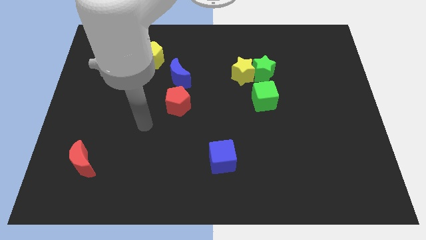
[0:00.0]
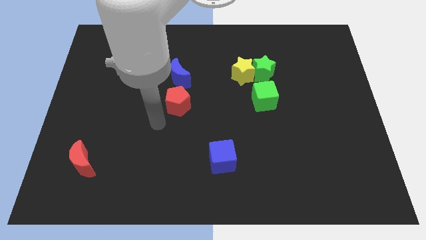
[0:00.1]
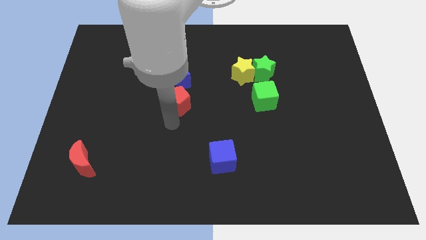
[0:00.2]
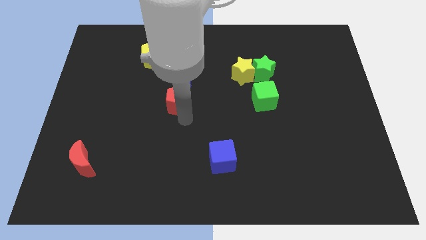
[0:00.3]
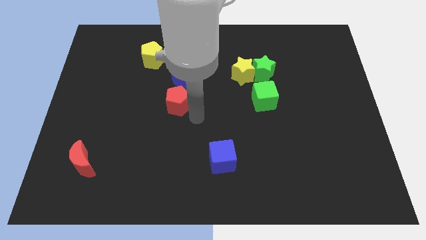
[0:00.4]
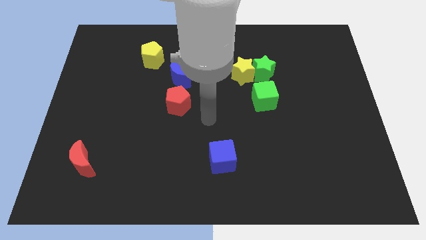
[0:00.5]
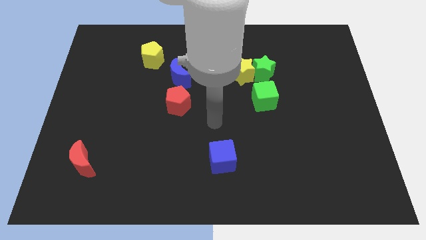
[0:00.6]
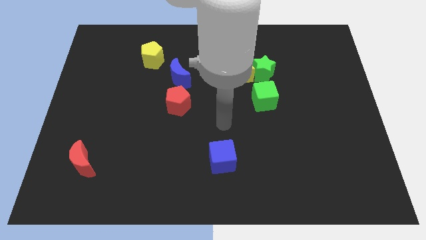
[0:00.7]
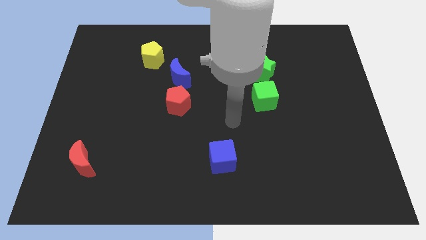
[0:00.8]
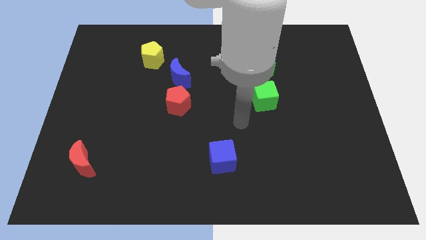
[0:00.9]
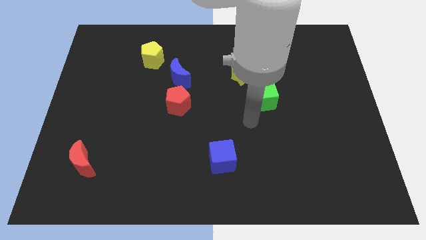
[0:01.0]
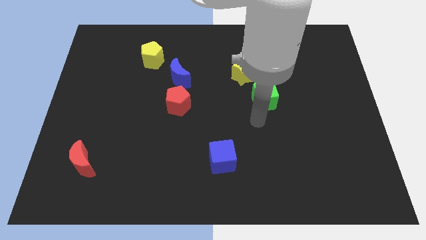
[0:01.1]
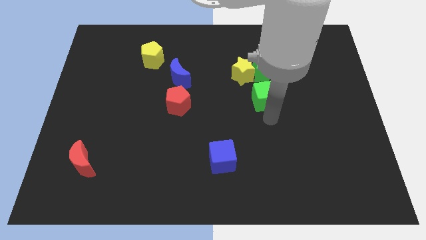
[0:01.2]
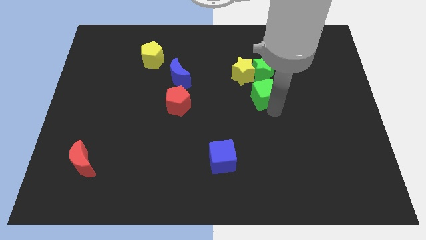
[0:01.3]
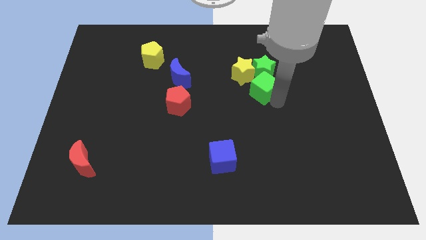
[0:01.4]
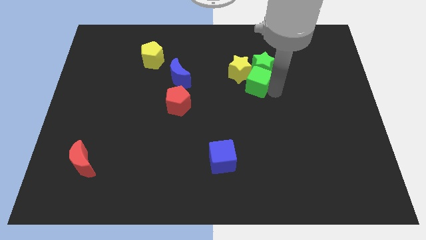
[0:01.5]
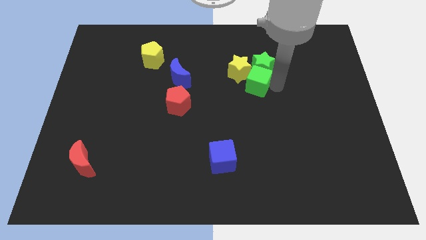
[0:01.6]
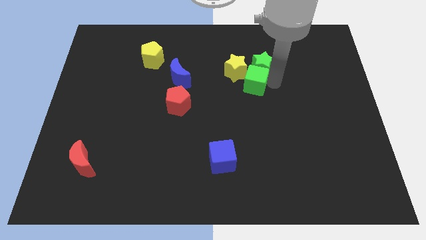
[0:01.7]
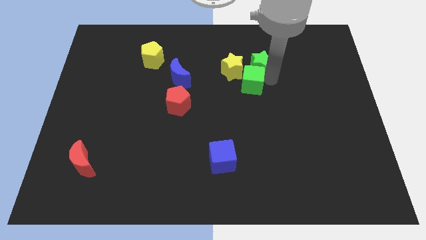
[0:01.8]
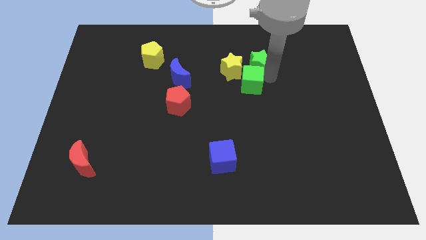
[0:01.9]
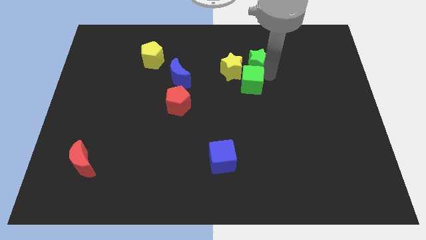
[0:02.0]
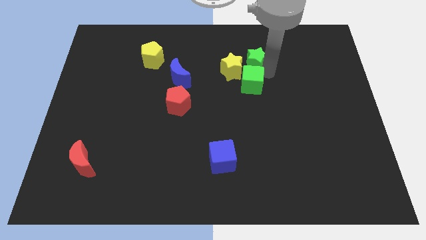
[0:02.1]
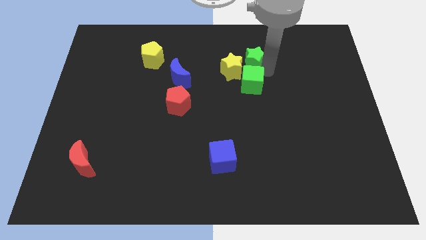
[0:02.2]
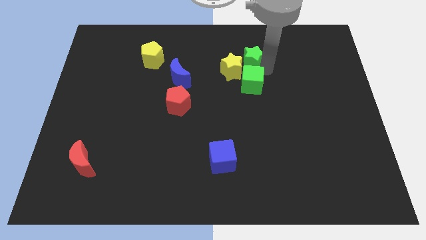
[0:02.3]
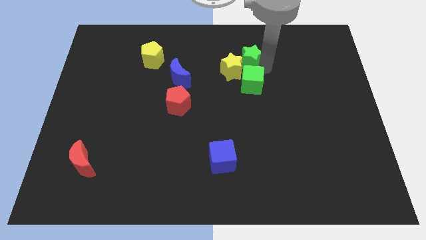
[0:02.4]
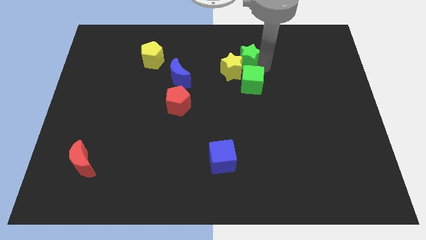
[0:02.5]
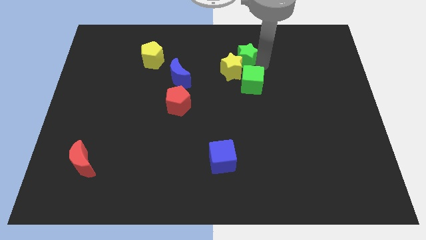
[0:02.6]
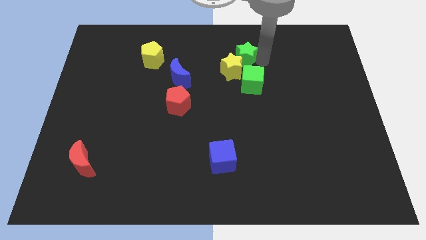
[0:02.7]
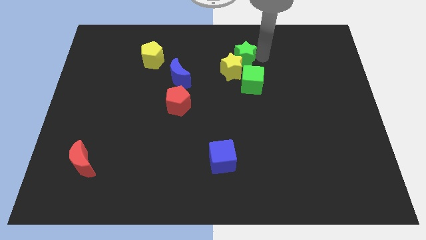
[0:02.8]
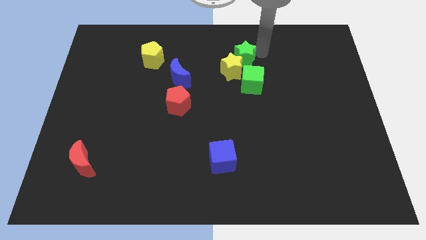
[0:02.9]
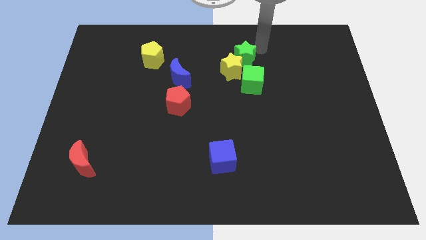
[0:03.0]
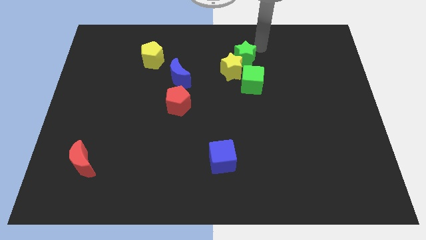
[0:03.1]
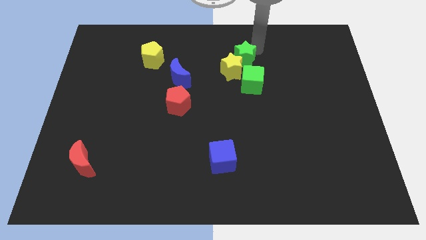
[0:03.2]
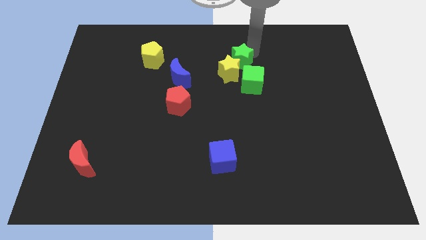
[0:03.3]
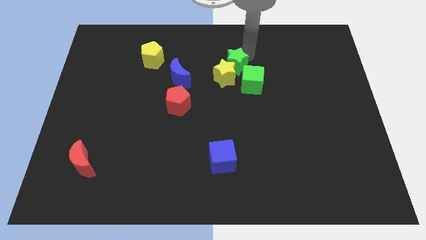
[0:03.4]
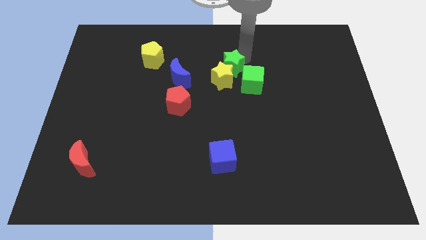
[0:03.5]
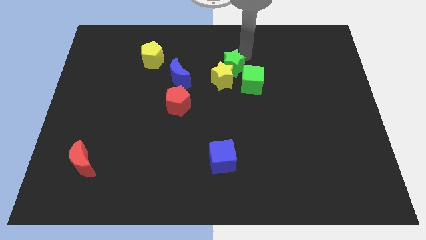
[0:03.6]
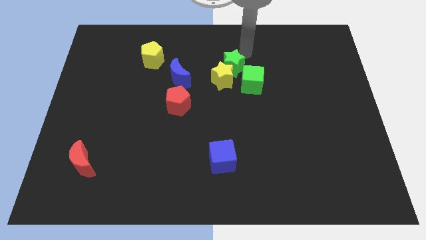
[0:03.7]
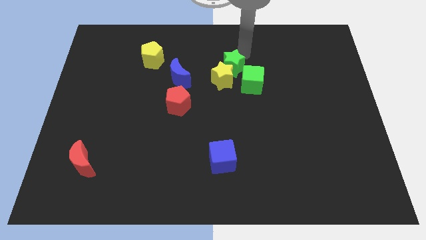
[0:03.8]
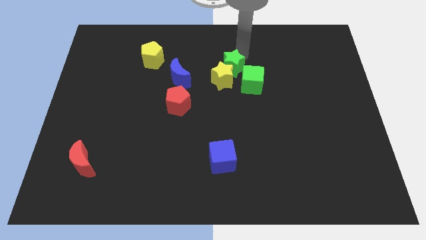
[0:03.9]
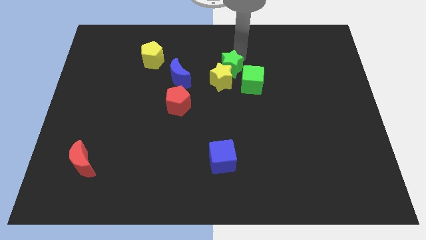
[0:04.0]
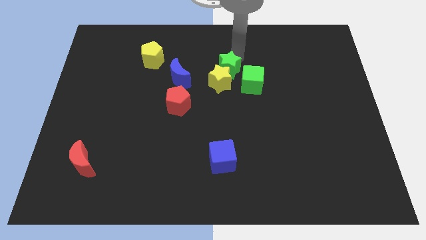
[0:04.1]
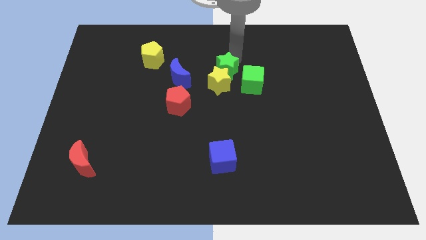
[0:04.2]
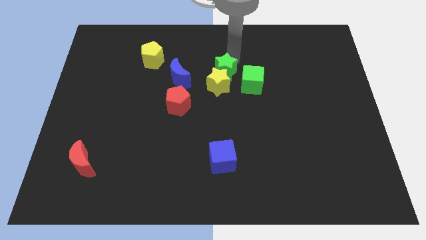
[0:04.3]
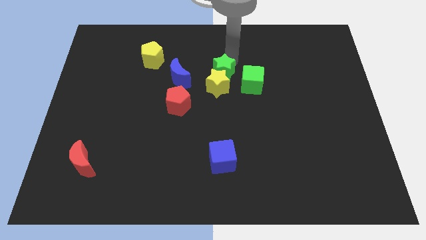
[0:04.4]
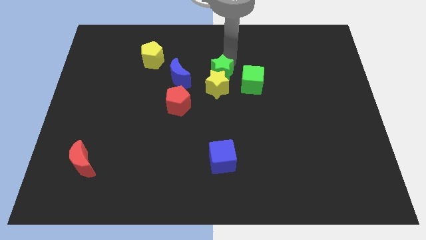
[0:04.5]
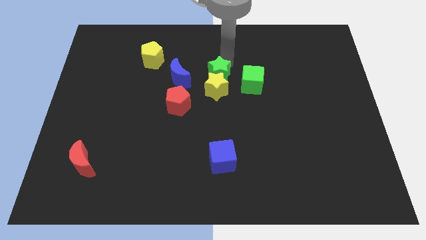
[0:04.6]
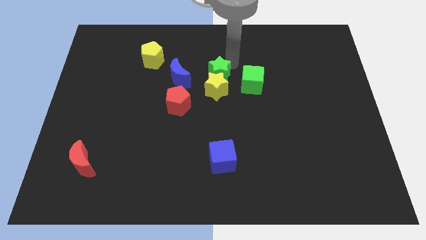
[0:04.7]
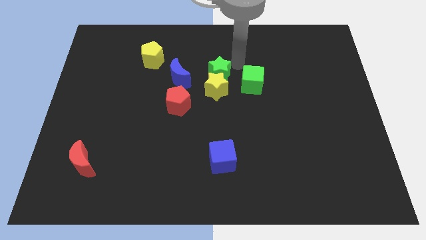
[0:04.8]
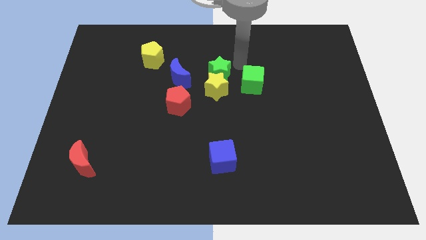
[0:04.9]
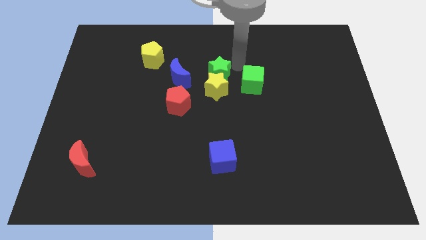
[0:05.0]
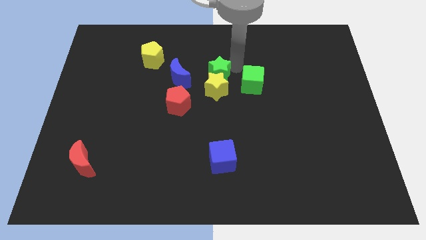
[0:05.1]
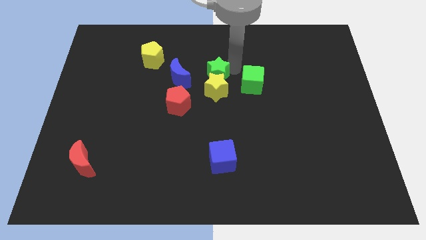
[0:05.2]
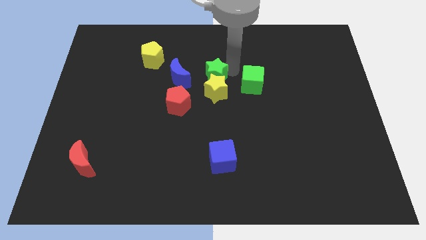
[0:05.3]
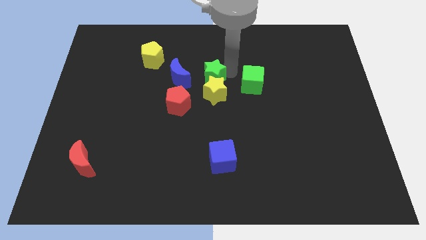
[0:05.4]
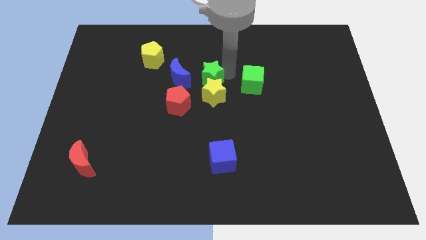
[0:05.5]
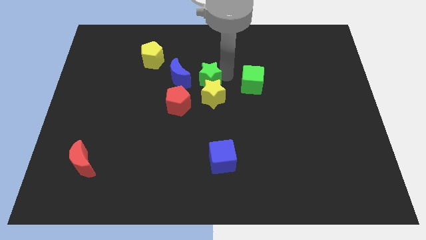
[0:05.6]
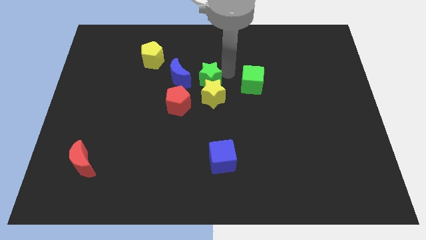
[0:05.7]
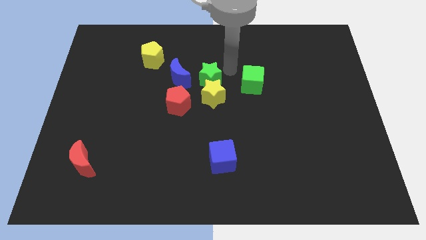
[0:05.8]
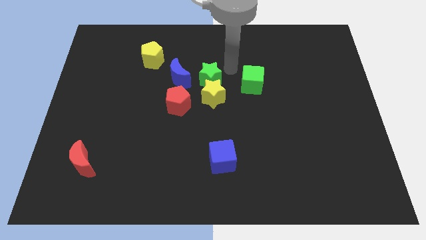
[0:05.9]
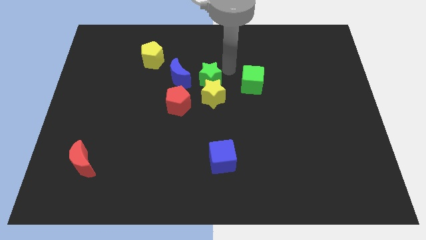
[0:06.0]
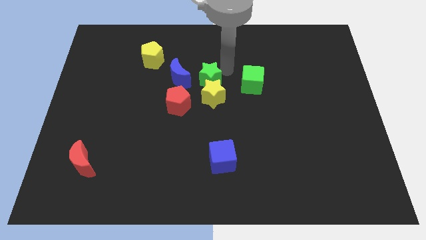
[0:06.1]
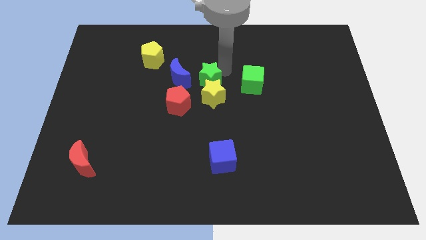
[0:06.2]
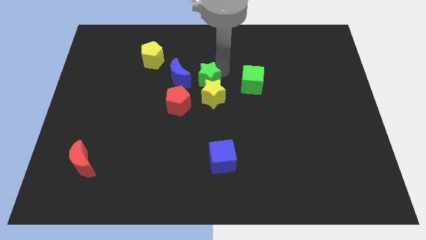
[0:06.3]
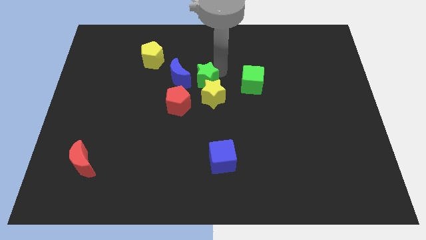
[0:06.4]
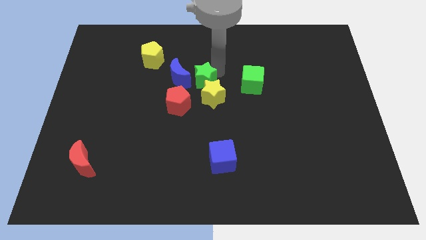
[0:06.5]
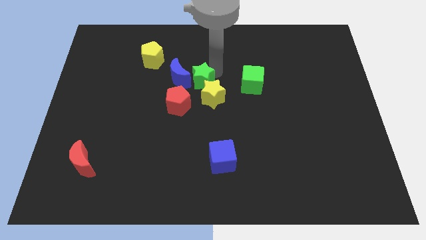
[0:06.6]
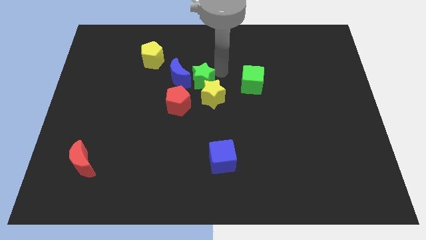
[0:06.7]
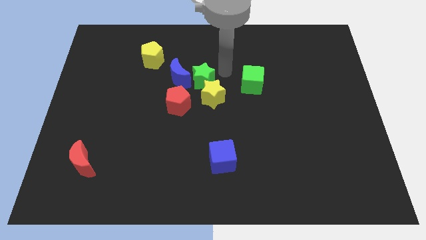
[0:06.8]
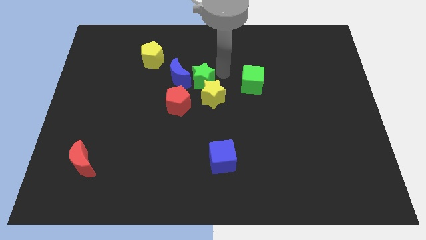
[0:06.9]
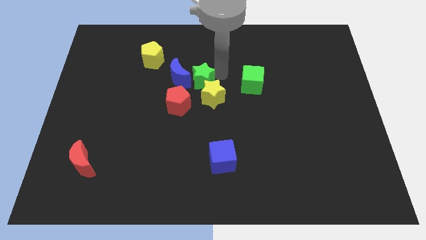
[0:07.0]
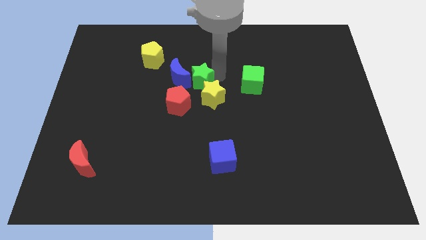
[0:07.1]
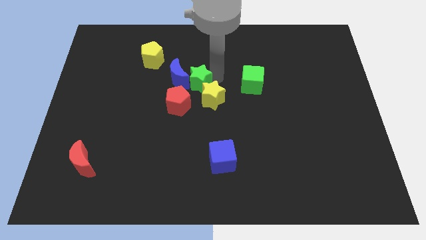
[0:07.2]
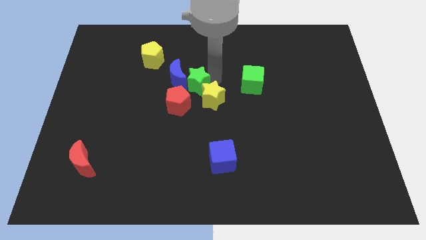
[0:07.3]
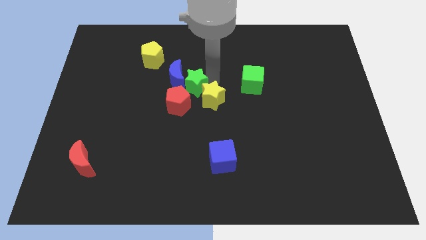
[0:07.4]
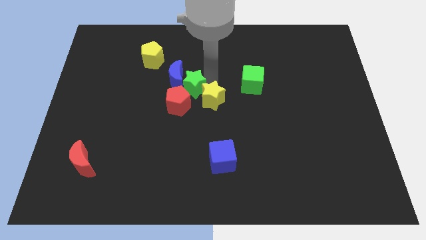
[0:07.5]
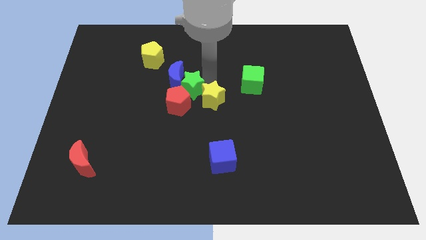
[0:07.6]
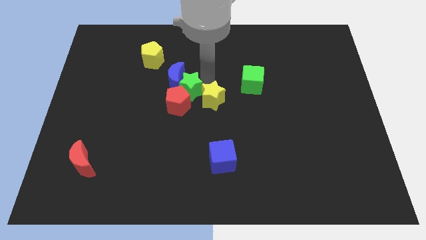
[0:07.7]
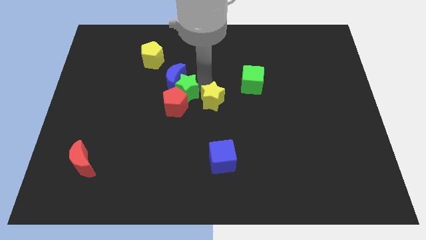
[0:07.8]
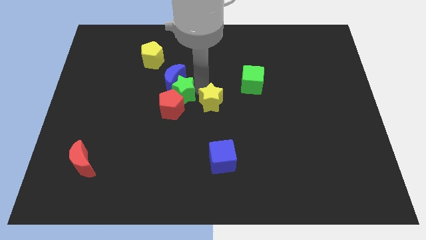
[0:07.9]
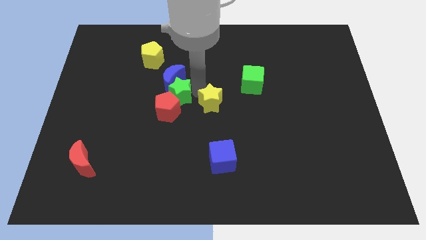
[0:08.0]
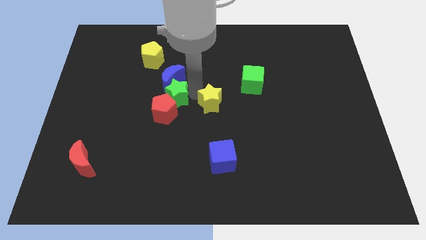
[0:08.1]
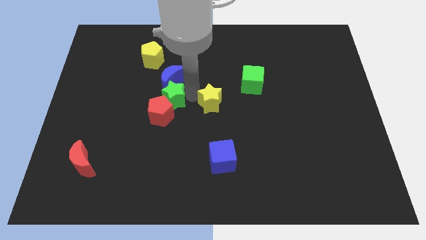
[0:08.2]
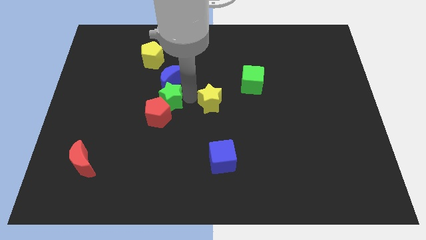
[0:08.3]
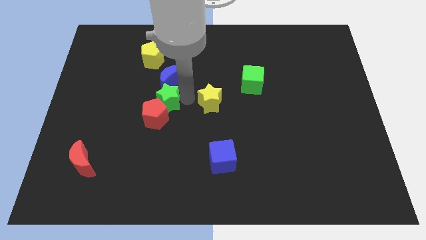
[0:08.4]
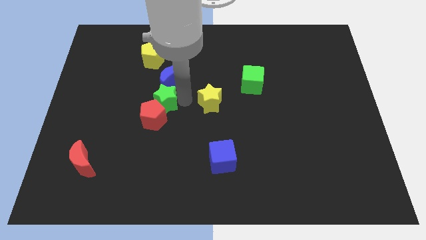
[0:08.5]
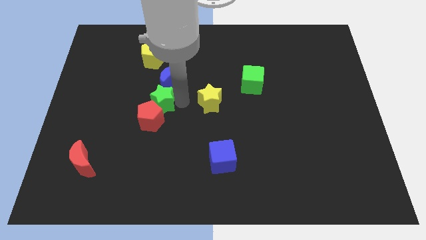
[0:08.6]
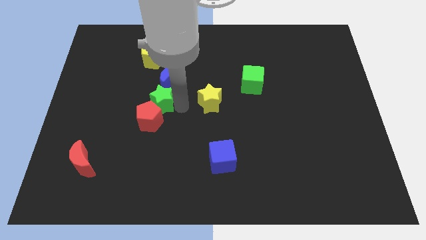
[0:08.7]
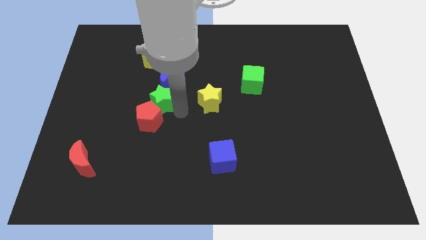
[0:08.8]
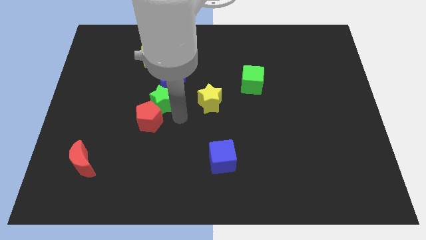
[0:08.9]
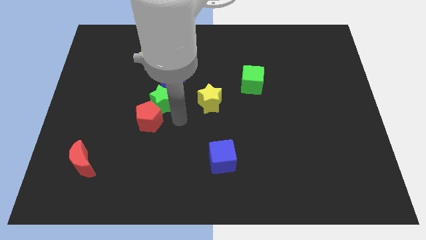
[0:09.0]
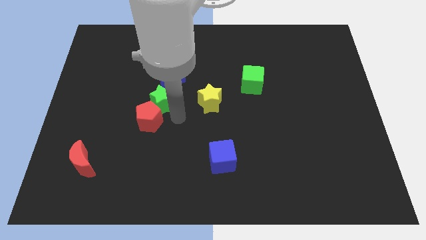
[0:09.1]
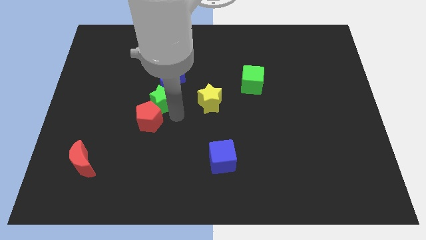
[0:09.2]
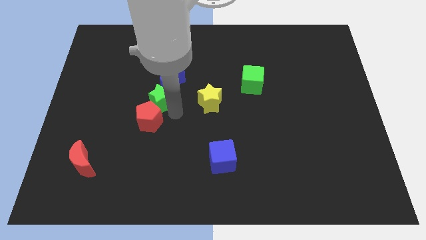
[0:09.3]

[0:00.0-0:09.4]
move the green star to the bottom of the yellow pentagon
